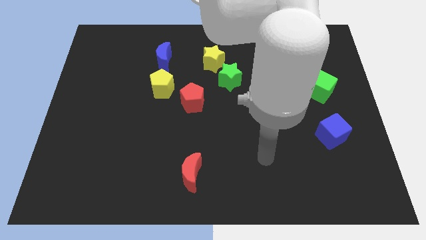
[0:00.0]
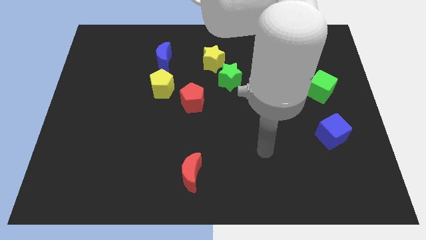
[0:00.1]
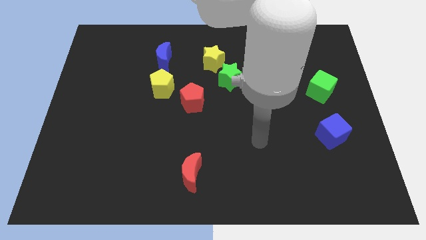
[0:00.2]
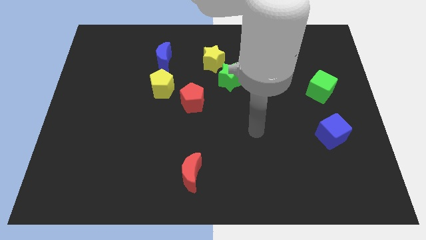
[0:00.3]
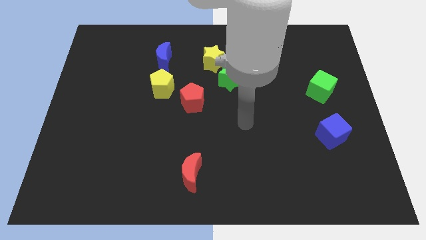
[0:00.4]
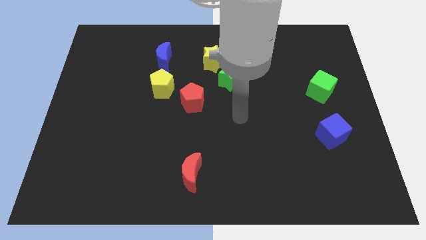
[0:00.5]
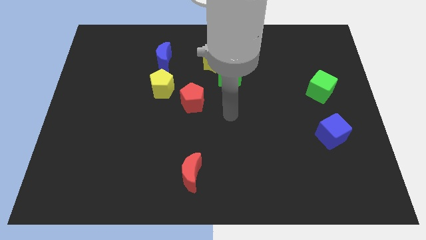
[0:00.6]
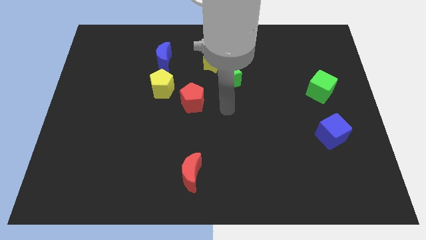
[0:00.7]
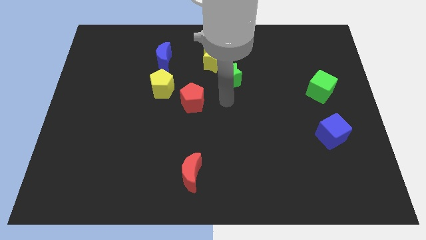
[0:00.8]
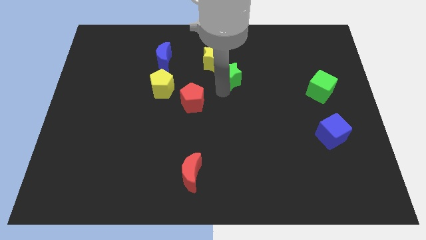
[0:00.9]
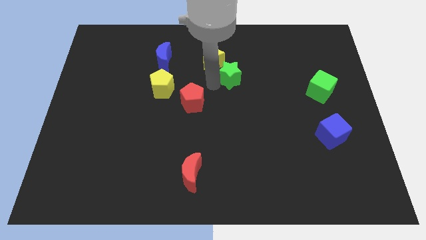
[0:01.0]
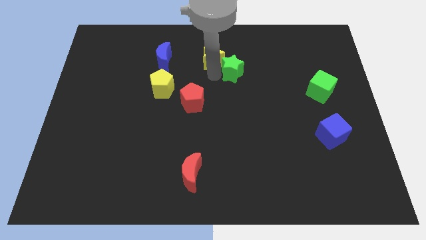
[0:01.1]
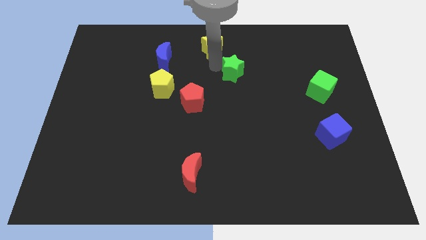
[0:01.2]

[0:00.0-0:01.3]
separate the green star from the yellow star

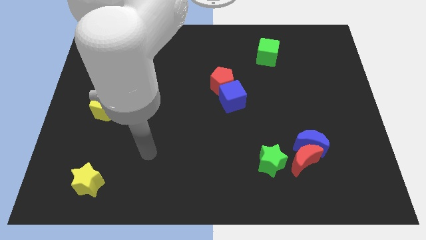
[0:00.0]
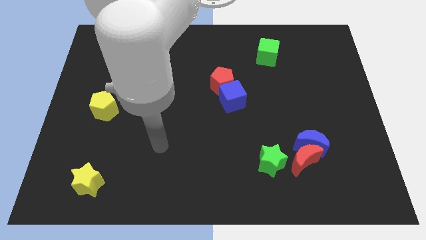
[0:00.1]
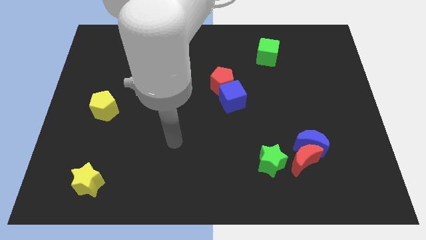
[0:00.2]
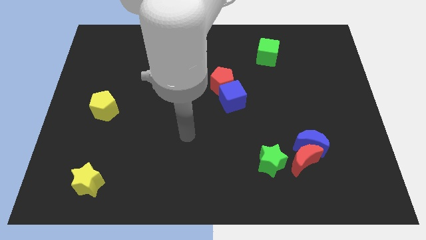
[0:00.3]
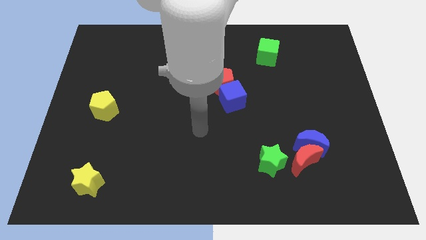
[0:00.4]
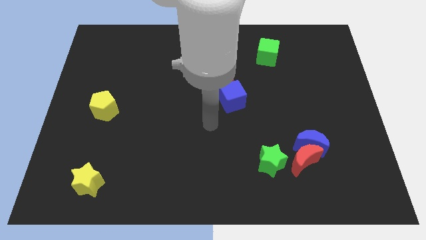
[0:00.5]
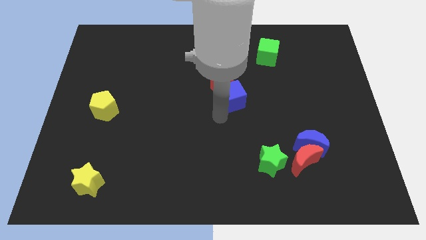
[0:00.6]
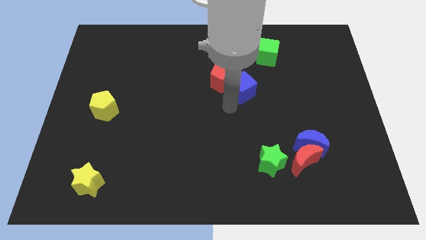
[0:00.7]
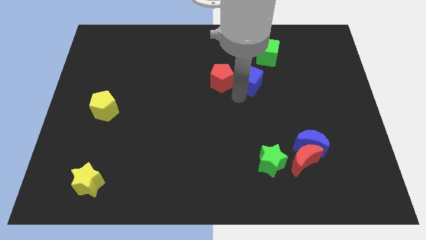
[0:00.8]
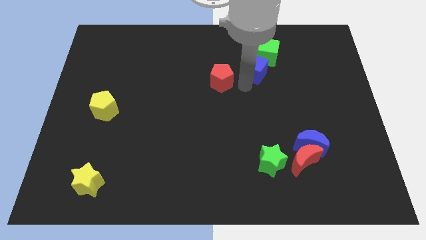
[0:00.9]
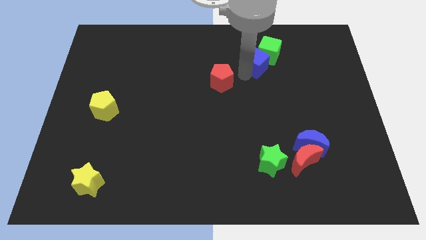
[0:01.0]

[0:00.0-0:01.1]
separate the red pentagon from the blue cube

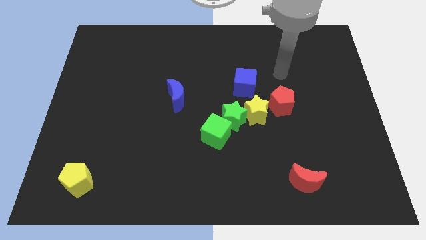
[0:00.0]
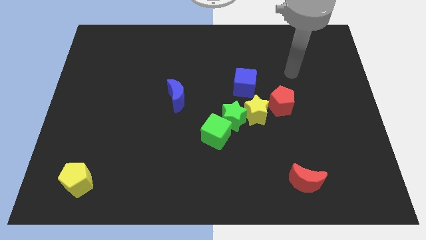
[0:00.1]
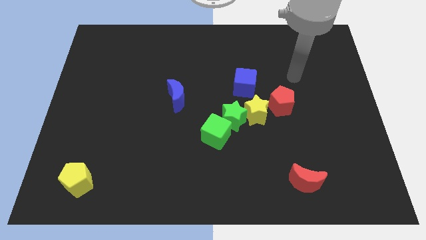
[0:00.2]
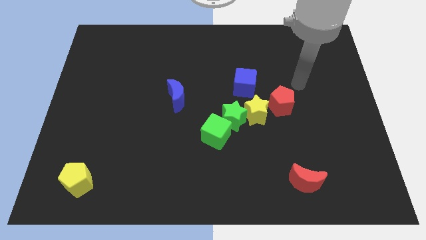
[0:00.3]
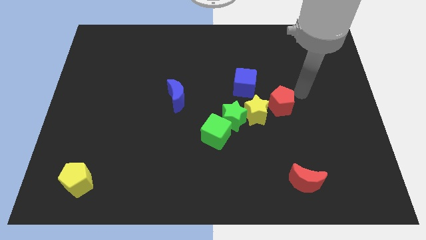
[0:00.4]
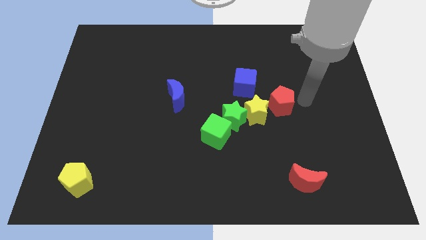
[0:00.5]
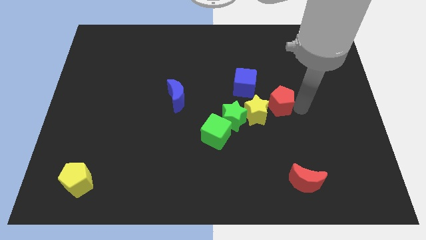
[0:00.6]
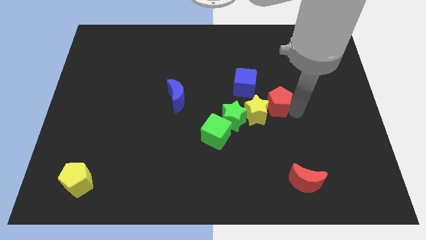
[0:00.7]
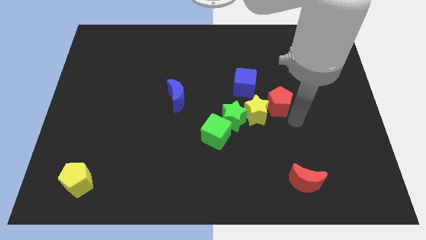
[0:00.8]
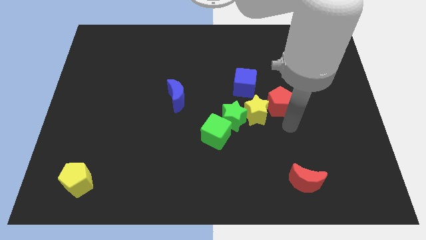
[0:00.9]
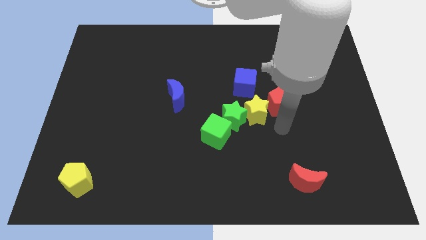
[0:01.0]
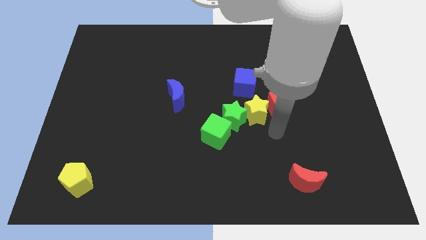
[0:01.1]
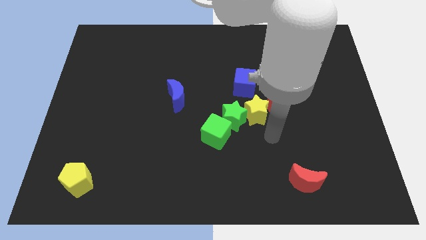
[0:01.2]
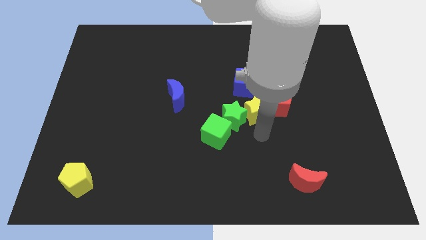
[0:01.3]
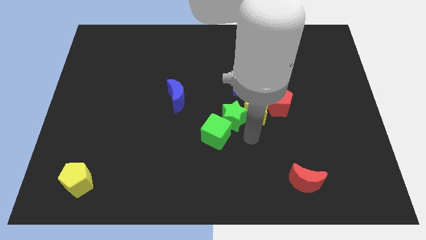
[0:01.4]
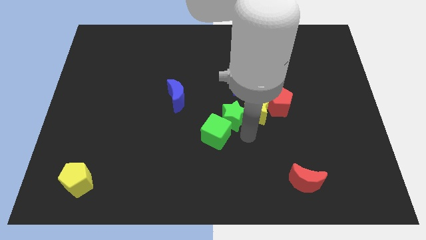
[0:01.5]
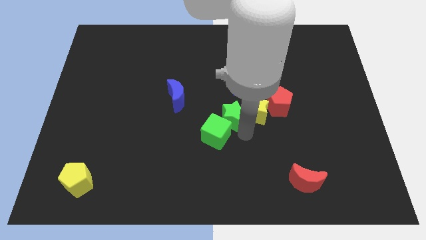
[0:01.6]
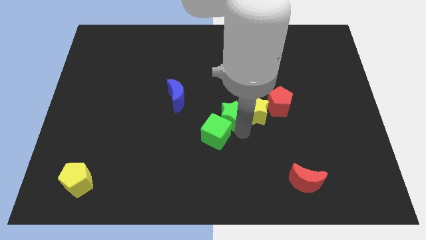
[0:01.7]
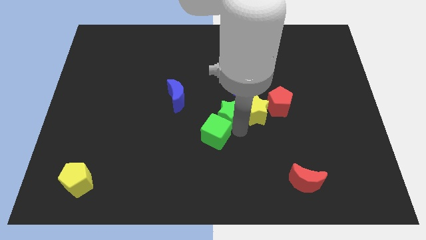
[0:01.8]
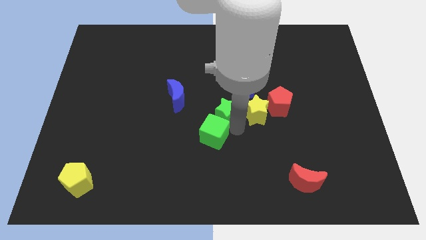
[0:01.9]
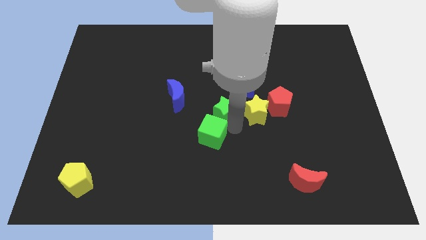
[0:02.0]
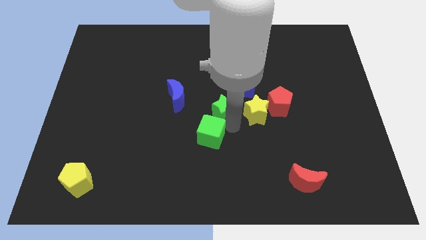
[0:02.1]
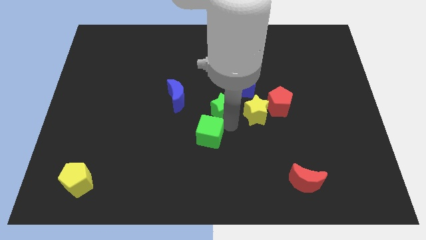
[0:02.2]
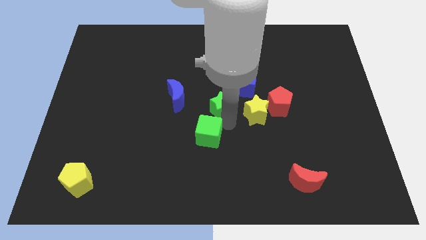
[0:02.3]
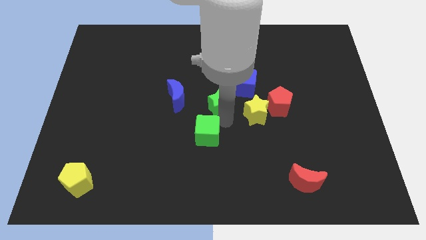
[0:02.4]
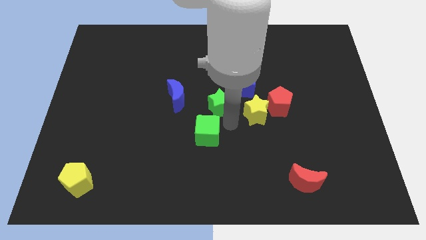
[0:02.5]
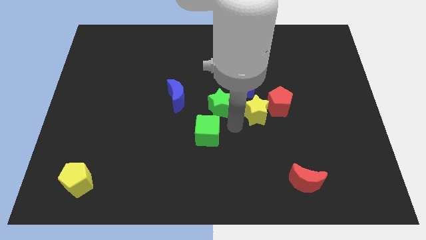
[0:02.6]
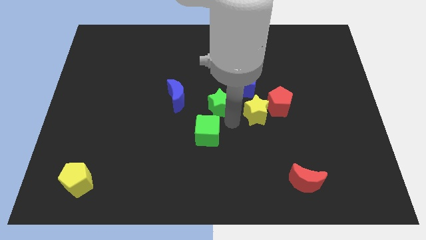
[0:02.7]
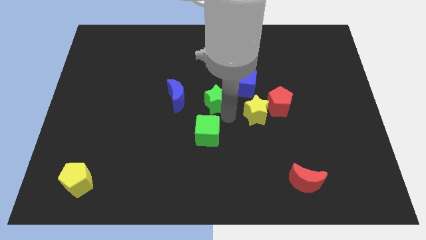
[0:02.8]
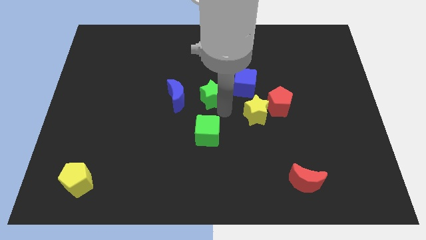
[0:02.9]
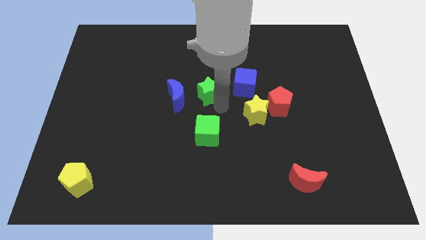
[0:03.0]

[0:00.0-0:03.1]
separate the green star from the yellow star and green cube

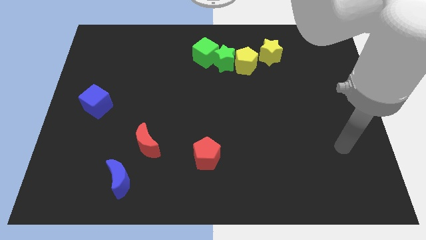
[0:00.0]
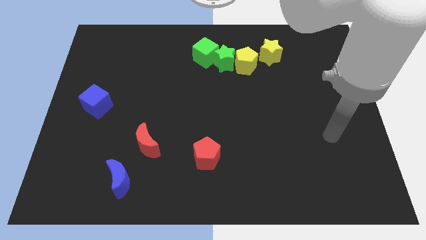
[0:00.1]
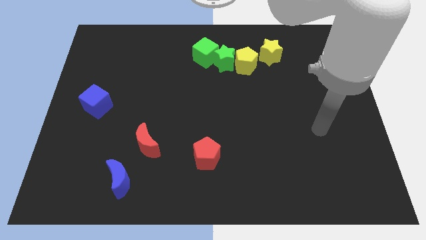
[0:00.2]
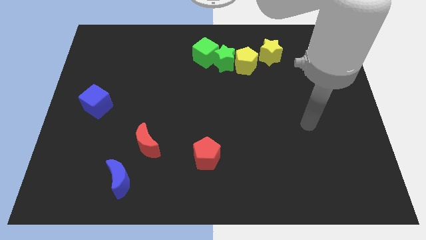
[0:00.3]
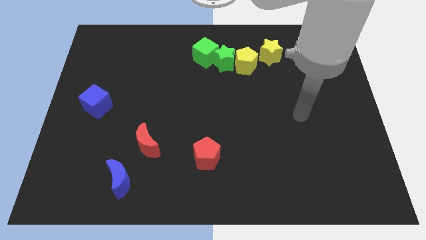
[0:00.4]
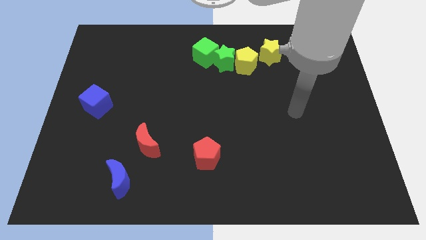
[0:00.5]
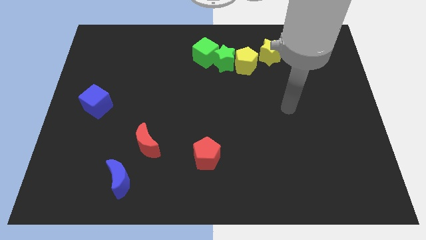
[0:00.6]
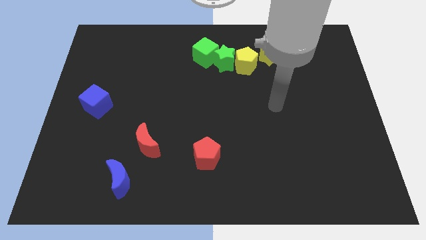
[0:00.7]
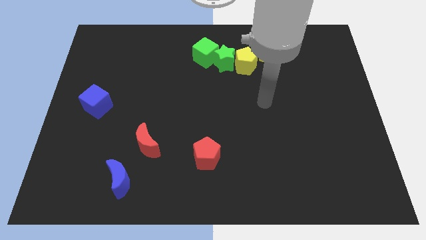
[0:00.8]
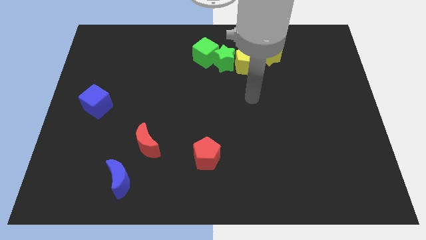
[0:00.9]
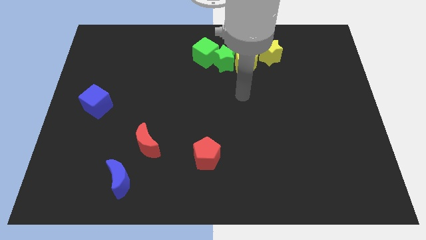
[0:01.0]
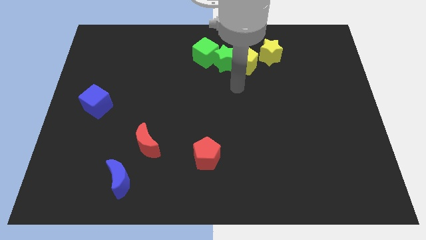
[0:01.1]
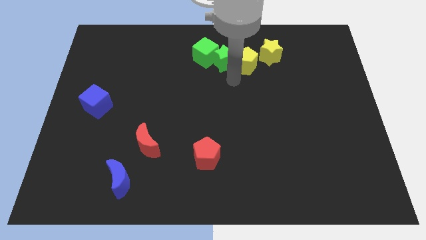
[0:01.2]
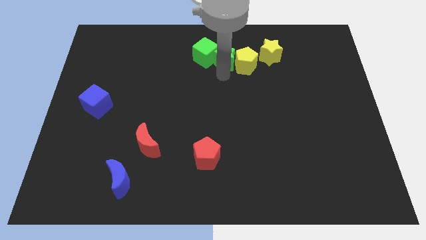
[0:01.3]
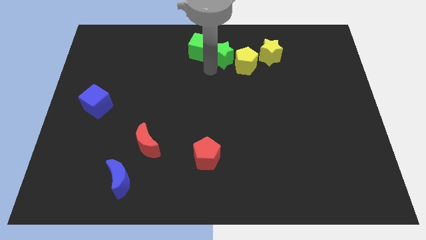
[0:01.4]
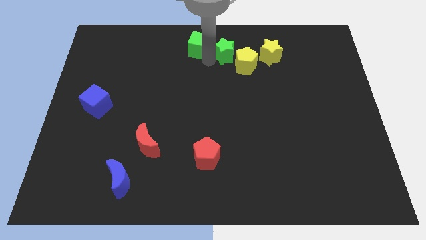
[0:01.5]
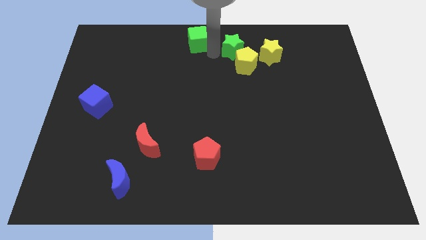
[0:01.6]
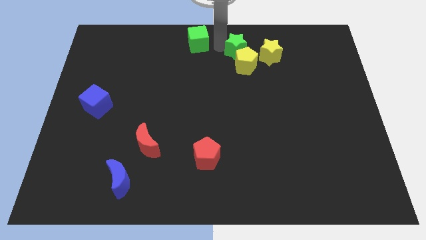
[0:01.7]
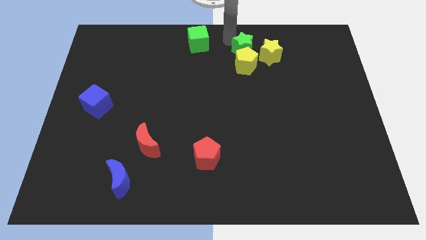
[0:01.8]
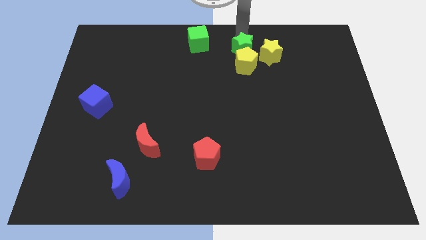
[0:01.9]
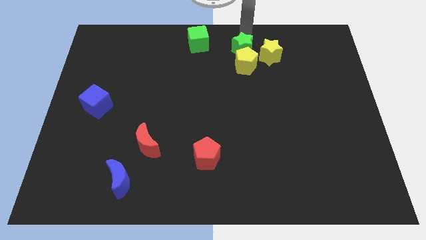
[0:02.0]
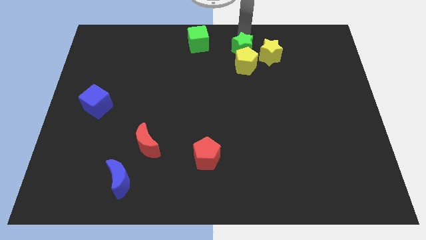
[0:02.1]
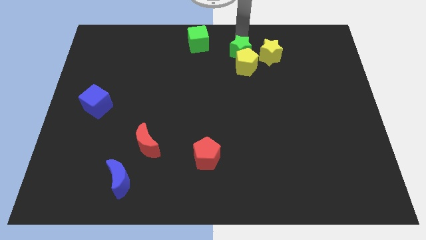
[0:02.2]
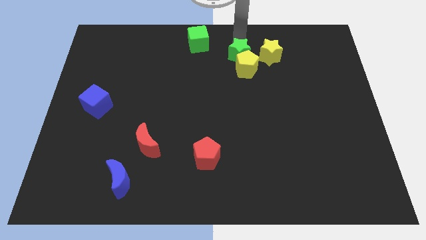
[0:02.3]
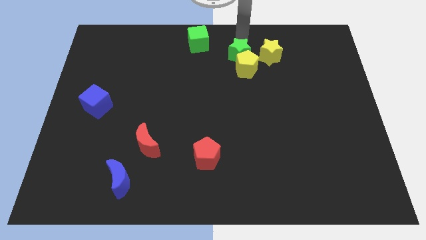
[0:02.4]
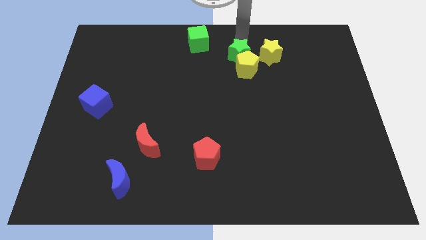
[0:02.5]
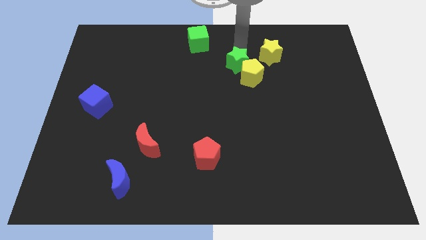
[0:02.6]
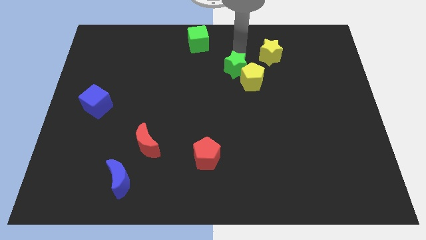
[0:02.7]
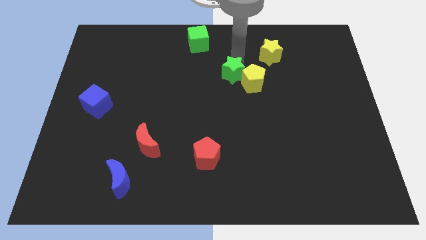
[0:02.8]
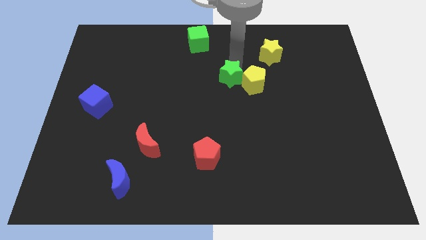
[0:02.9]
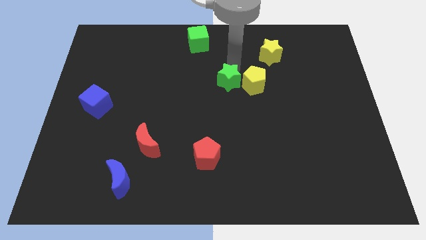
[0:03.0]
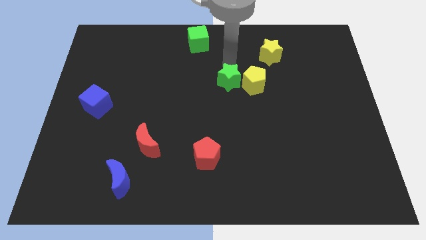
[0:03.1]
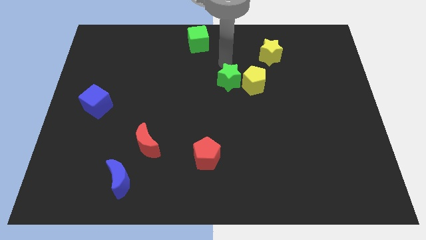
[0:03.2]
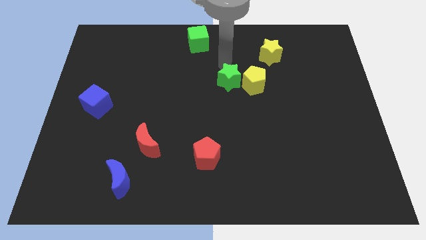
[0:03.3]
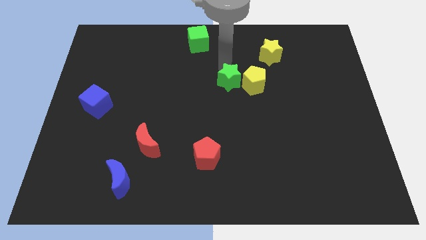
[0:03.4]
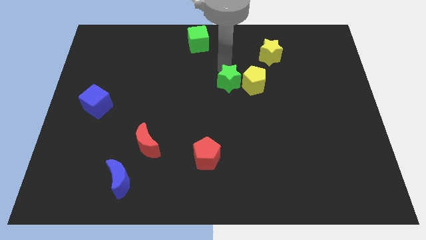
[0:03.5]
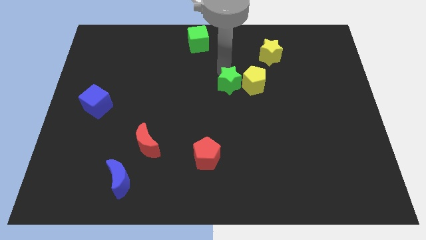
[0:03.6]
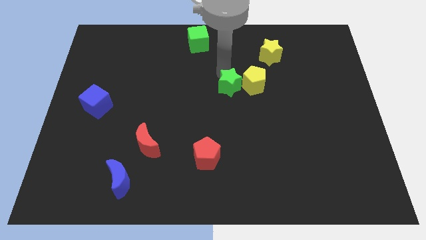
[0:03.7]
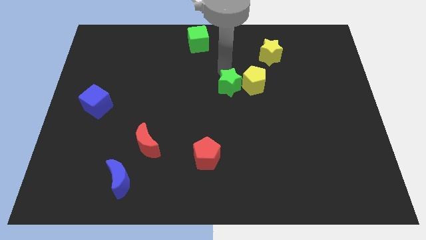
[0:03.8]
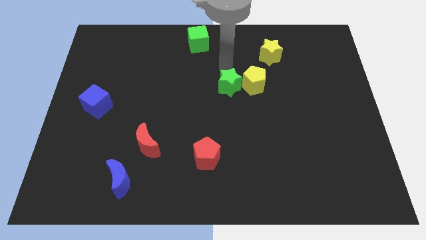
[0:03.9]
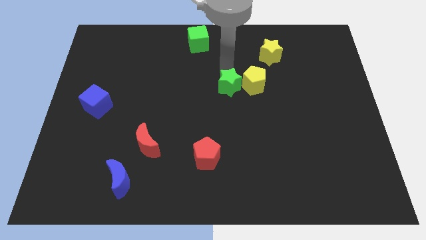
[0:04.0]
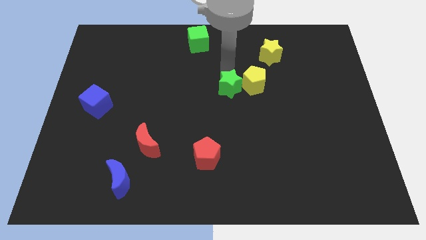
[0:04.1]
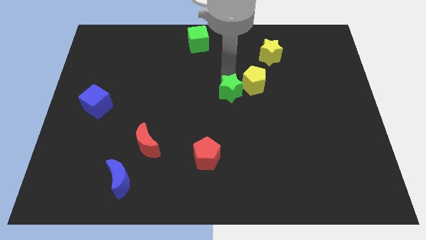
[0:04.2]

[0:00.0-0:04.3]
move the green star away from the yellow pentagon and green cube
